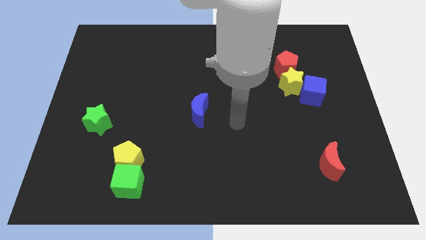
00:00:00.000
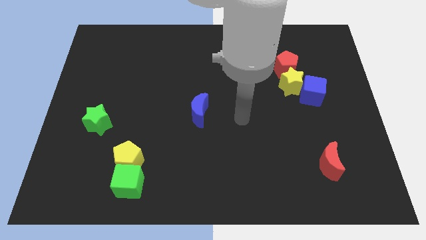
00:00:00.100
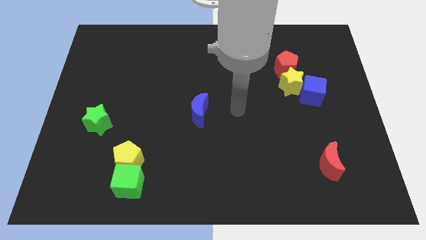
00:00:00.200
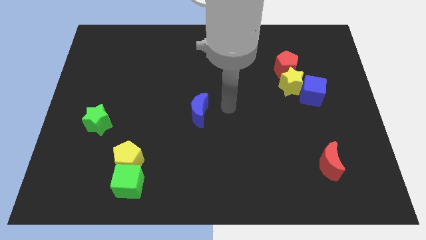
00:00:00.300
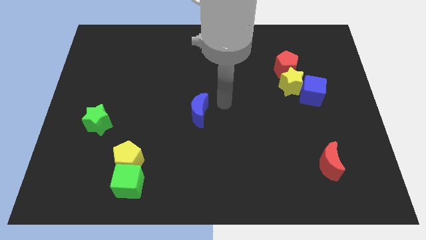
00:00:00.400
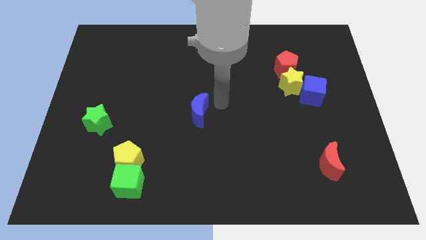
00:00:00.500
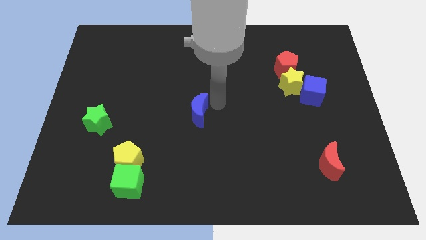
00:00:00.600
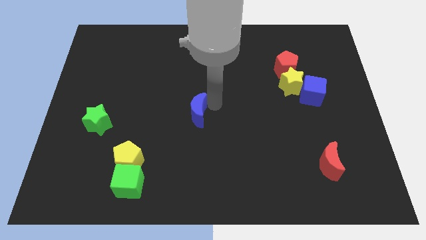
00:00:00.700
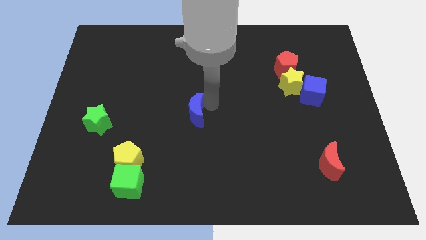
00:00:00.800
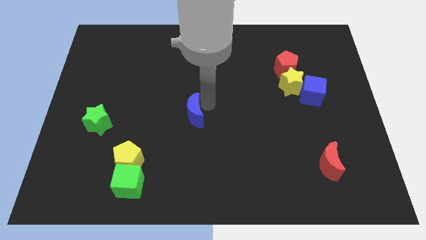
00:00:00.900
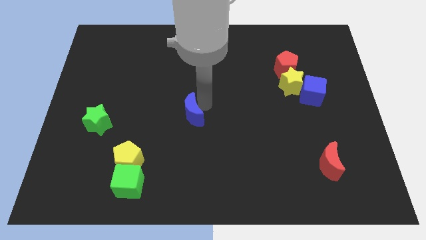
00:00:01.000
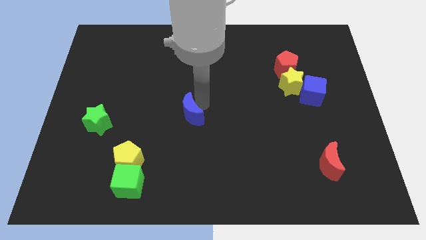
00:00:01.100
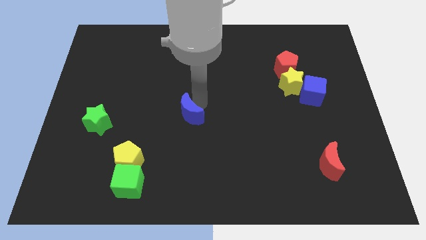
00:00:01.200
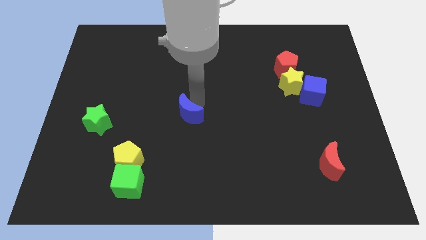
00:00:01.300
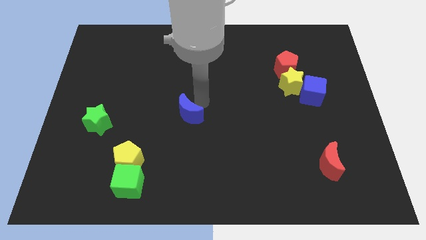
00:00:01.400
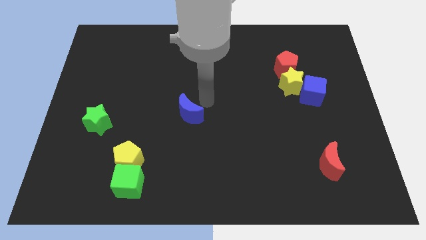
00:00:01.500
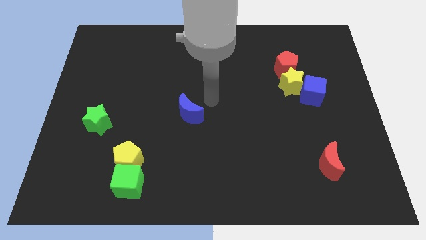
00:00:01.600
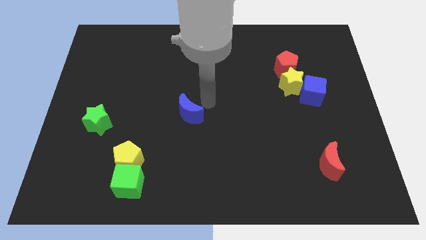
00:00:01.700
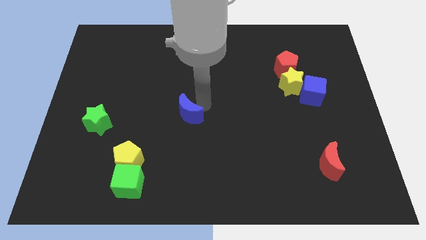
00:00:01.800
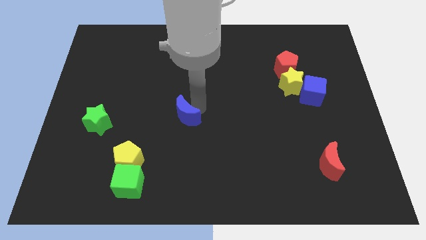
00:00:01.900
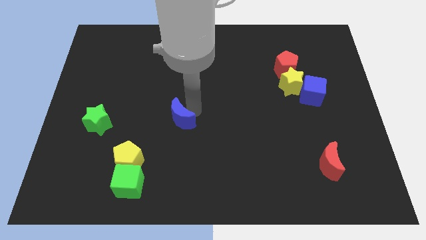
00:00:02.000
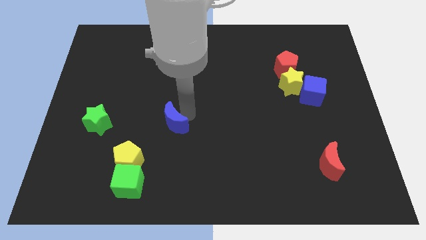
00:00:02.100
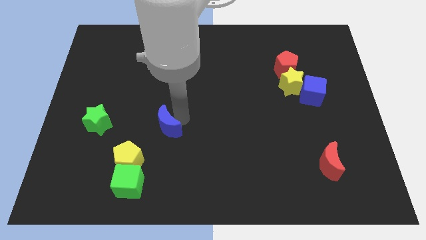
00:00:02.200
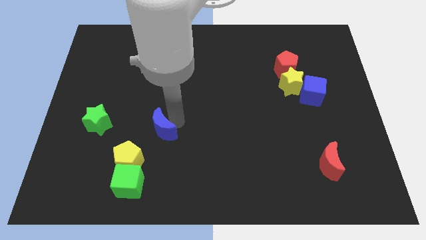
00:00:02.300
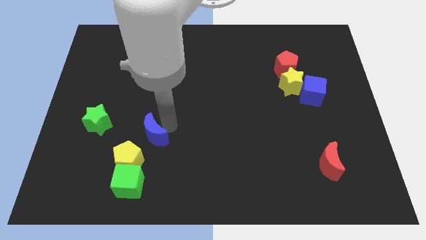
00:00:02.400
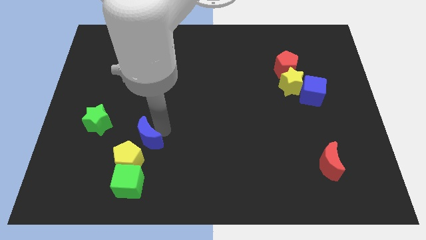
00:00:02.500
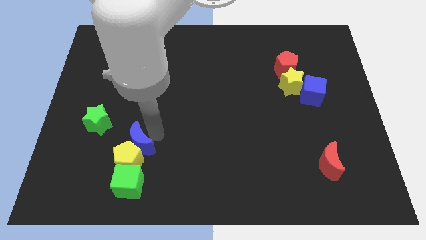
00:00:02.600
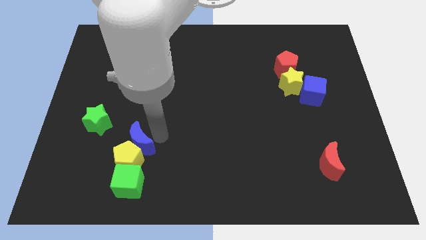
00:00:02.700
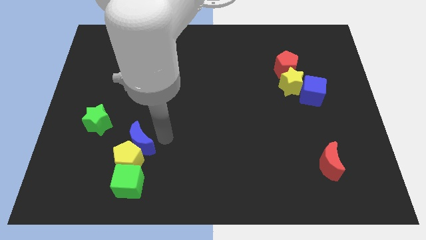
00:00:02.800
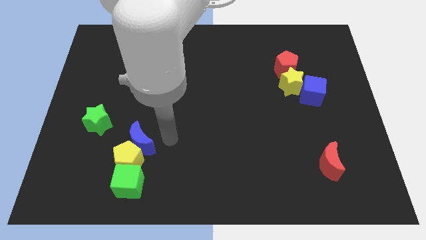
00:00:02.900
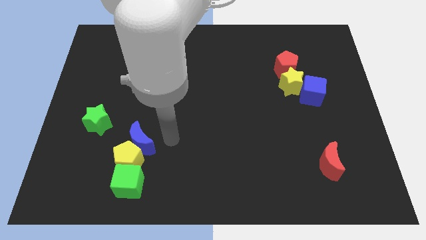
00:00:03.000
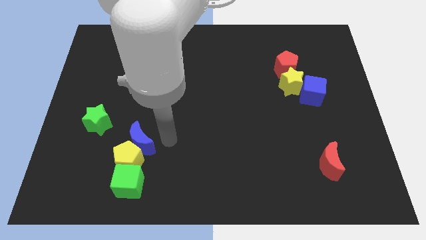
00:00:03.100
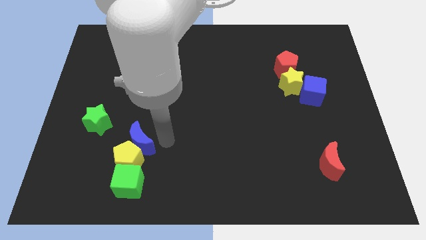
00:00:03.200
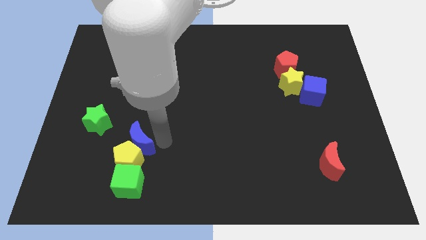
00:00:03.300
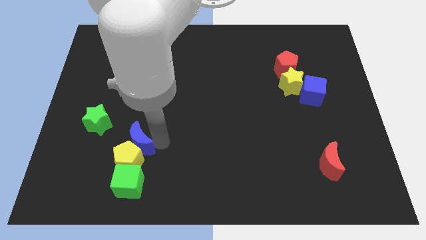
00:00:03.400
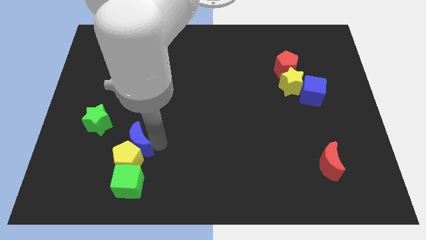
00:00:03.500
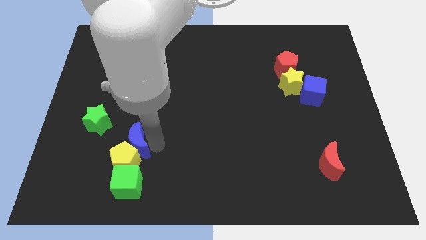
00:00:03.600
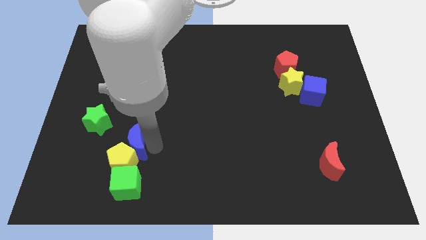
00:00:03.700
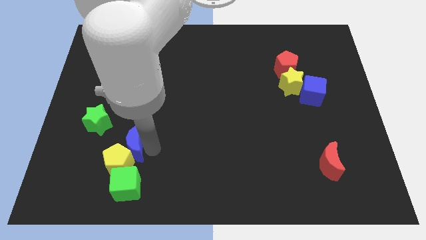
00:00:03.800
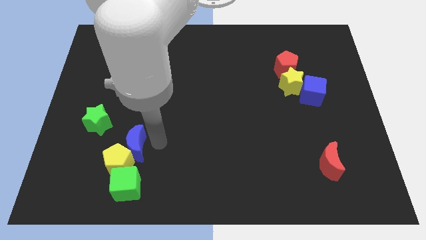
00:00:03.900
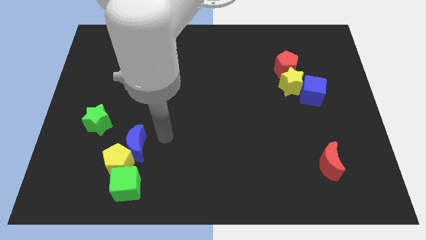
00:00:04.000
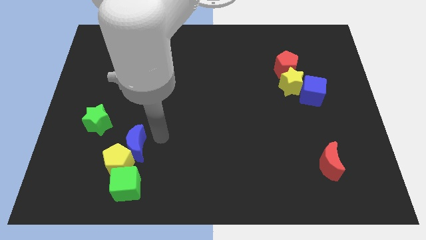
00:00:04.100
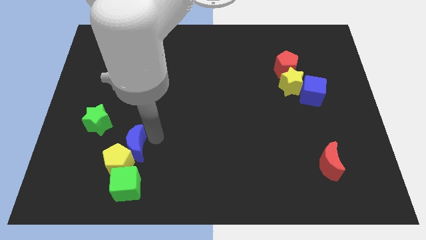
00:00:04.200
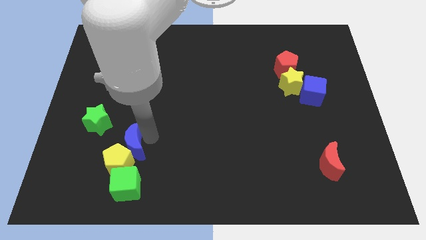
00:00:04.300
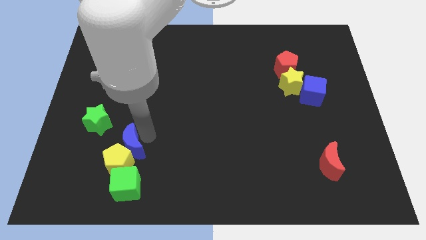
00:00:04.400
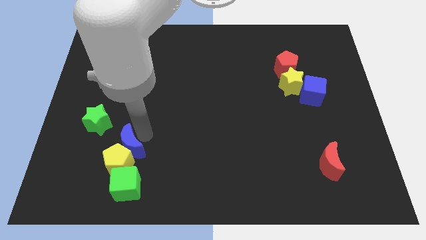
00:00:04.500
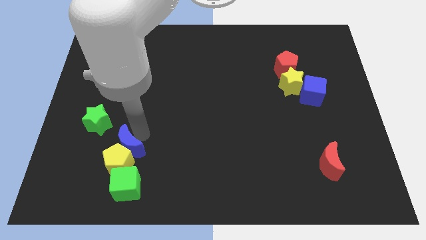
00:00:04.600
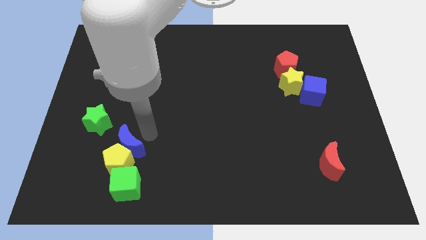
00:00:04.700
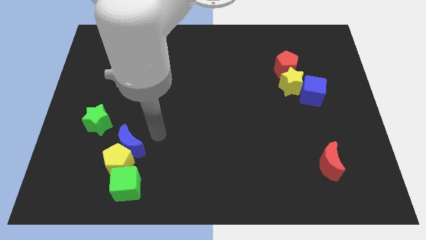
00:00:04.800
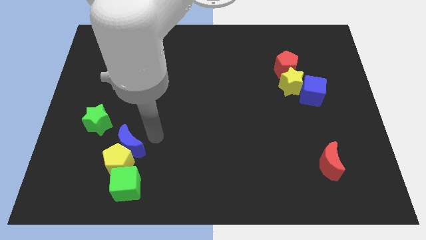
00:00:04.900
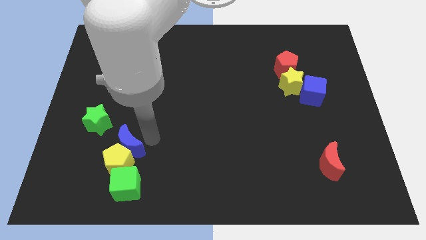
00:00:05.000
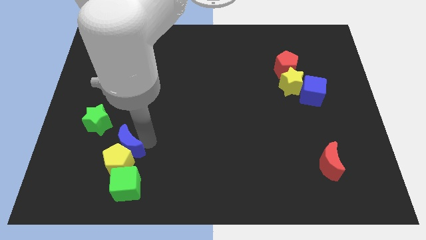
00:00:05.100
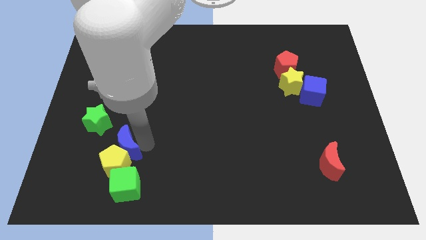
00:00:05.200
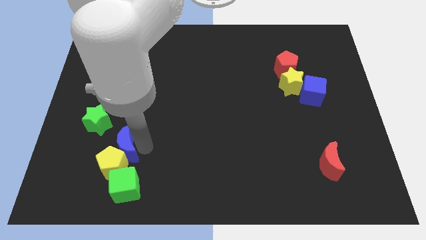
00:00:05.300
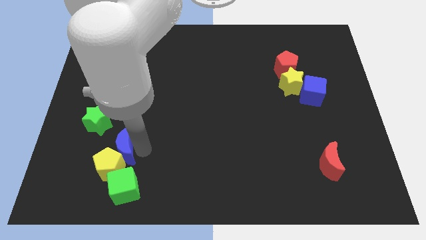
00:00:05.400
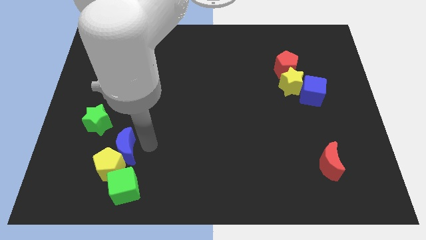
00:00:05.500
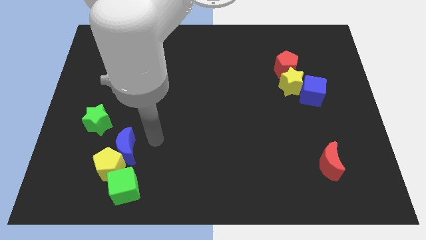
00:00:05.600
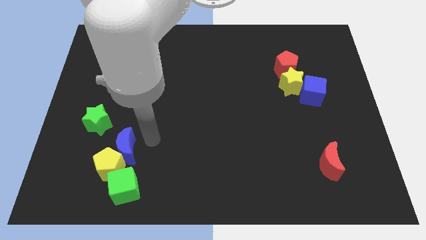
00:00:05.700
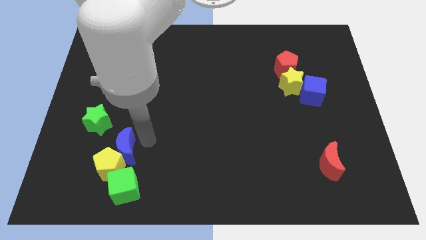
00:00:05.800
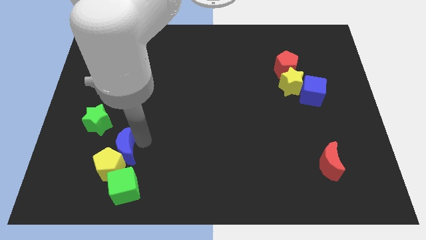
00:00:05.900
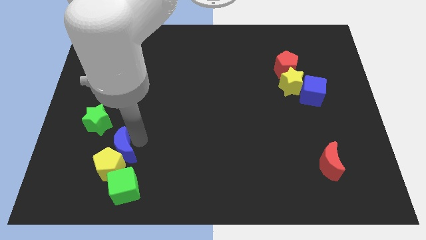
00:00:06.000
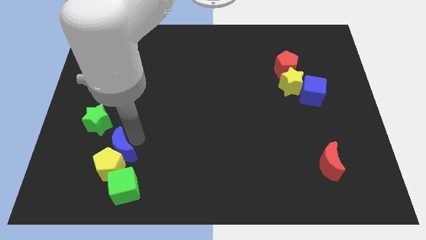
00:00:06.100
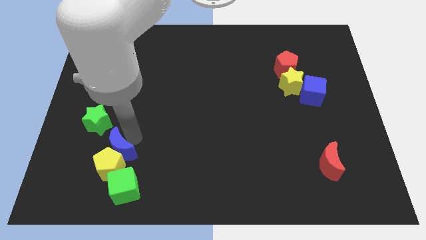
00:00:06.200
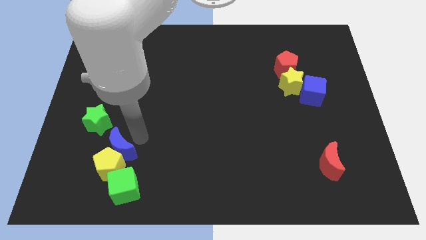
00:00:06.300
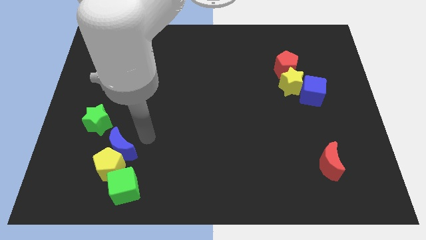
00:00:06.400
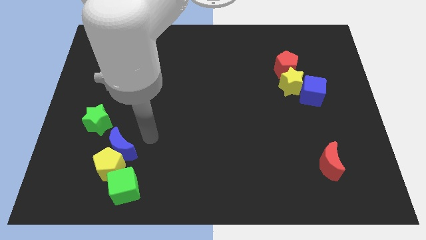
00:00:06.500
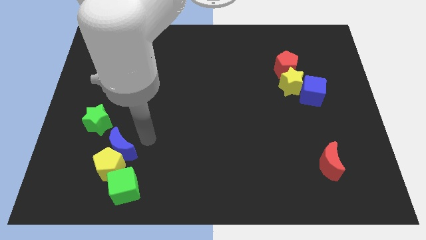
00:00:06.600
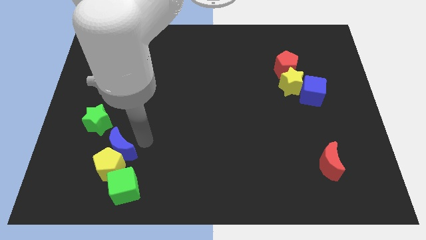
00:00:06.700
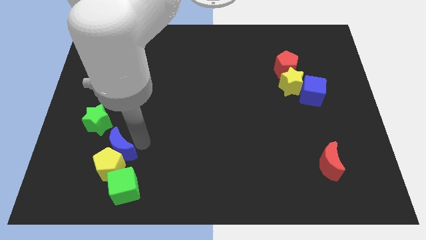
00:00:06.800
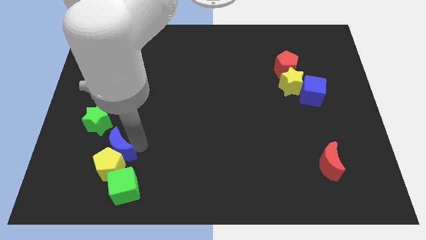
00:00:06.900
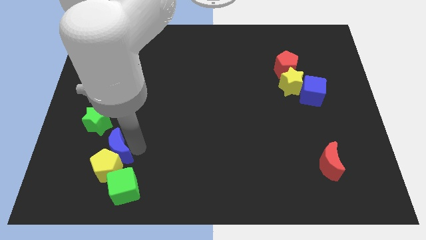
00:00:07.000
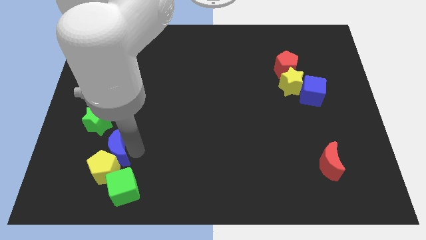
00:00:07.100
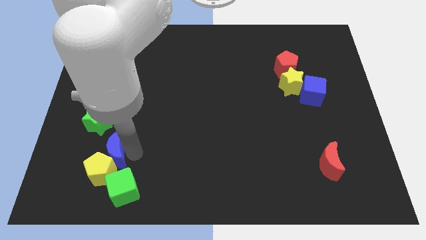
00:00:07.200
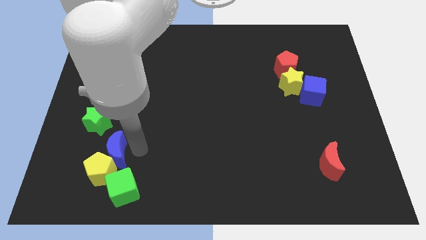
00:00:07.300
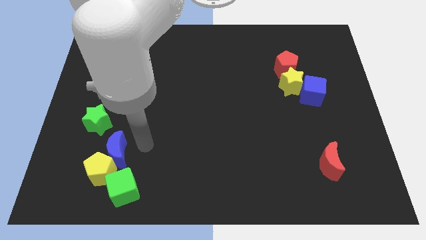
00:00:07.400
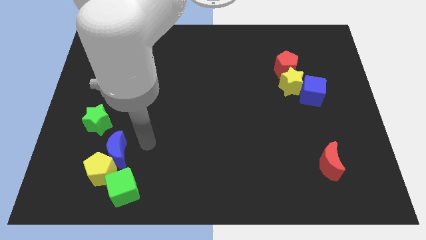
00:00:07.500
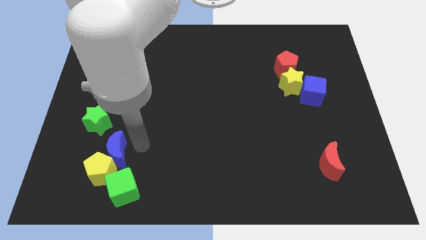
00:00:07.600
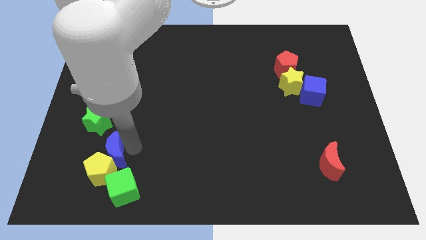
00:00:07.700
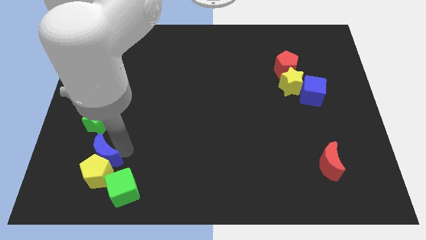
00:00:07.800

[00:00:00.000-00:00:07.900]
move the blue moon to the bottom side of the green star
